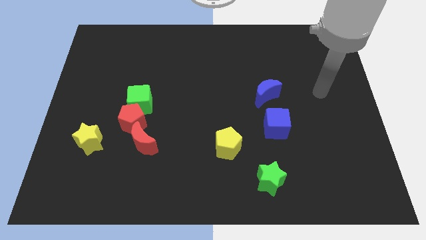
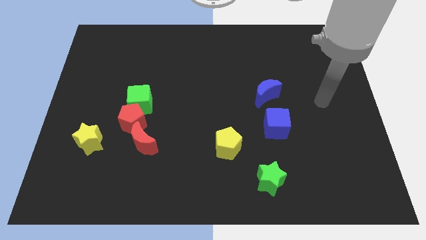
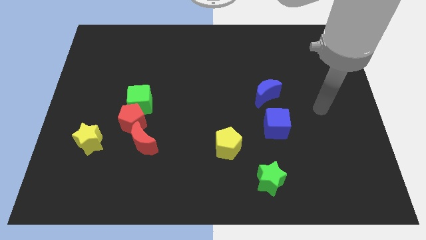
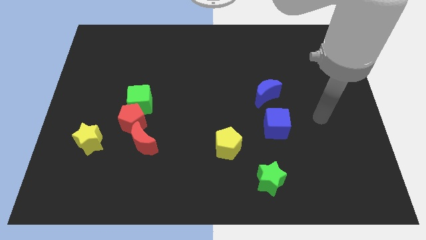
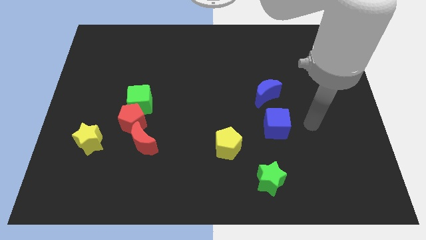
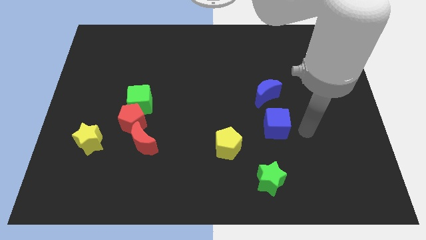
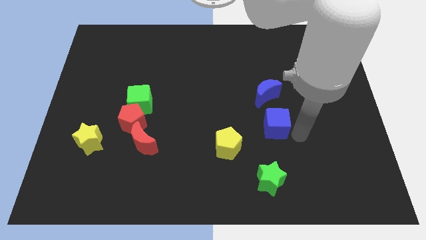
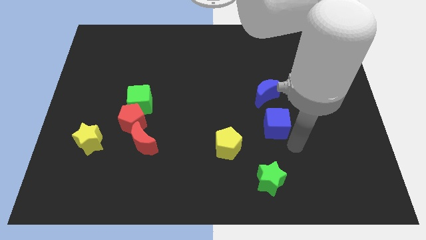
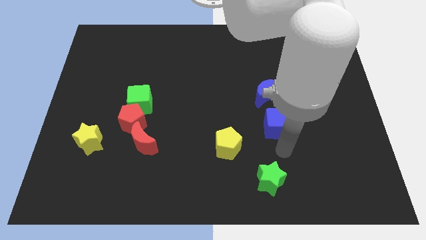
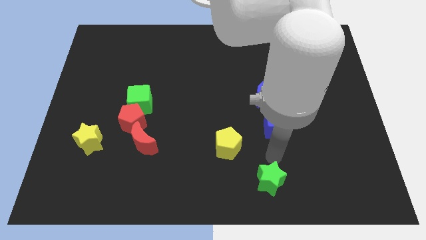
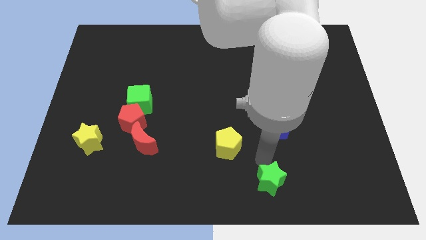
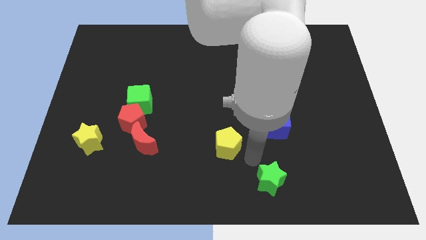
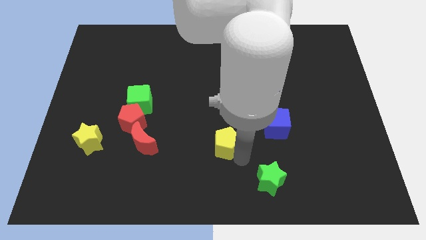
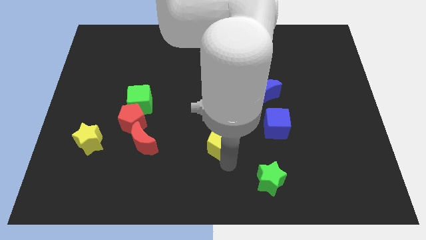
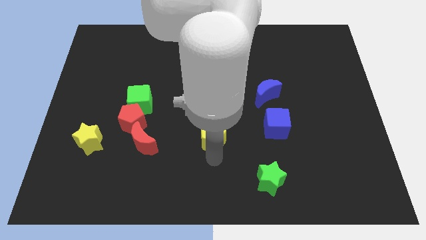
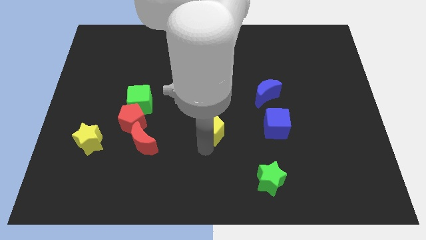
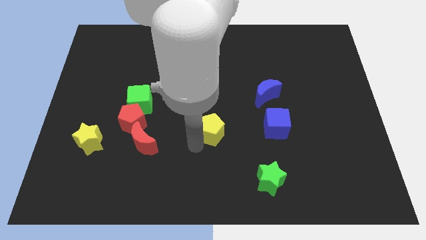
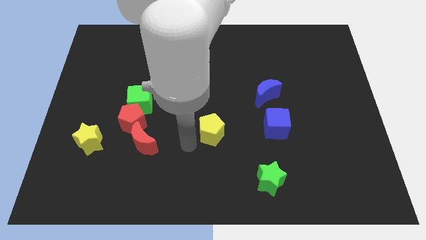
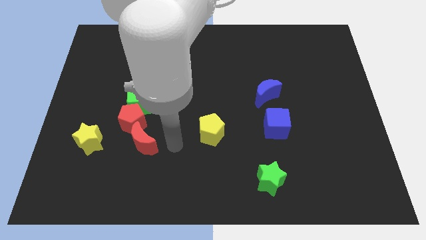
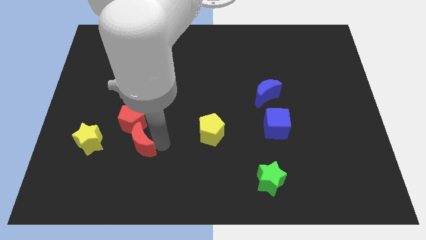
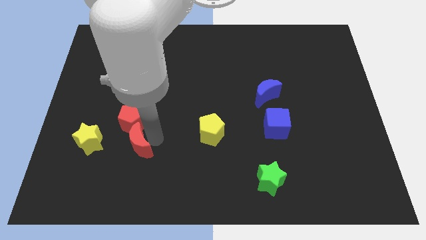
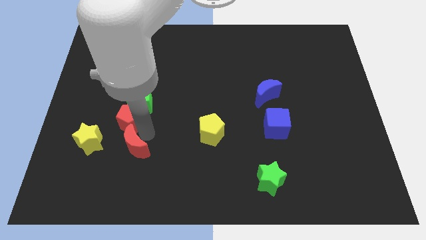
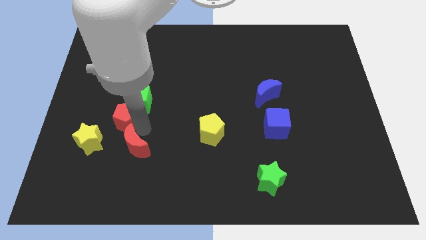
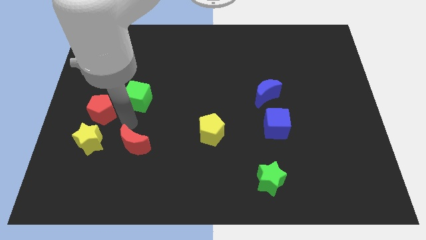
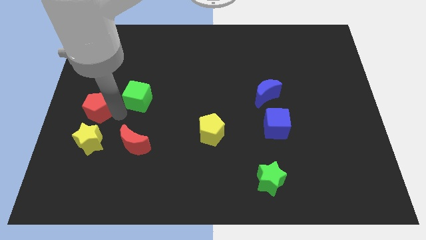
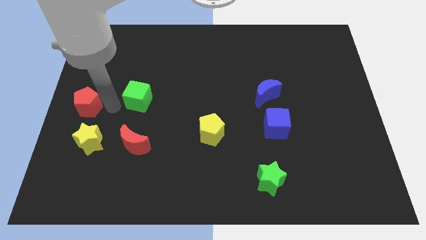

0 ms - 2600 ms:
separate the green cube from the red pentagon

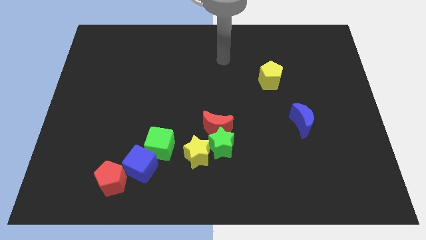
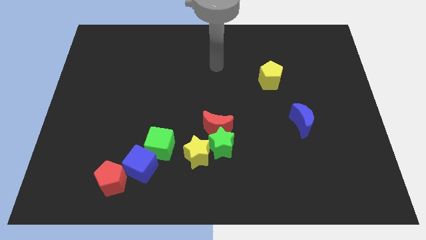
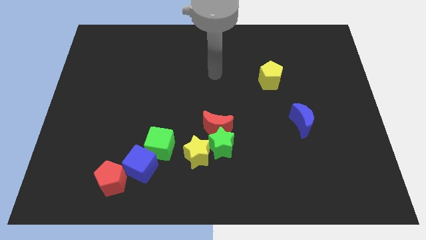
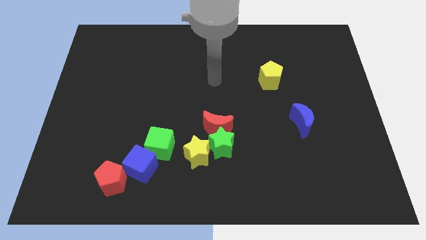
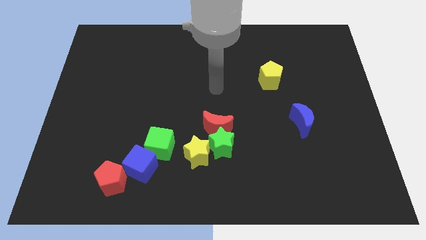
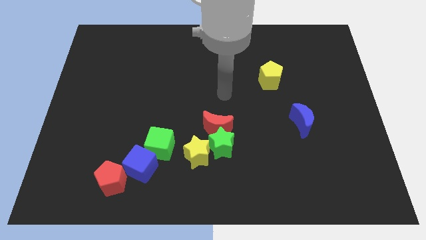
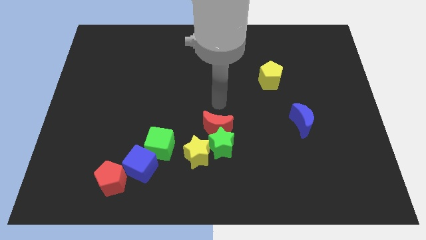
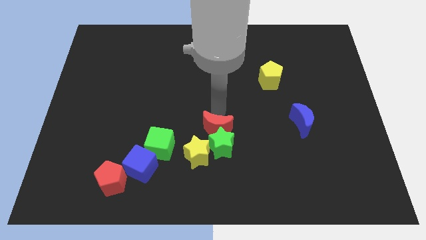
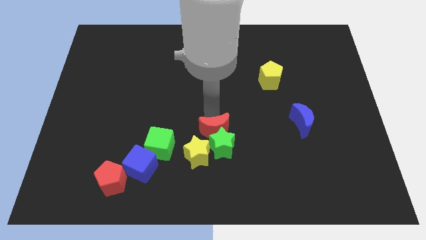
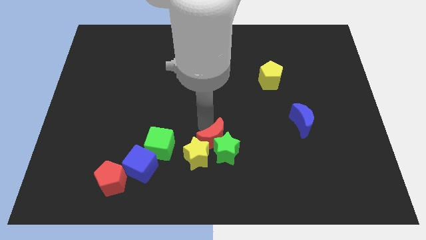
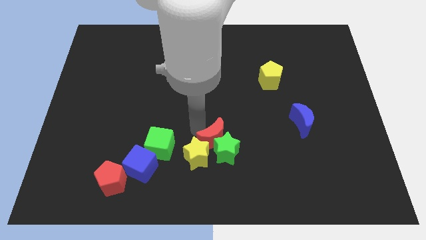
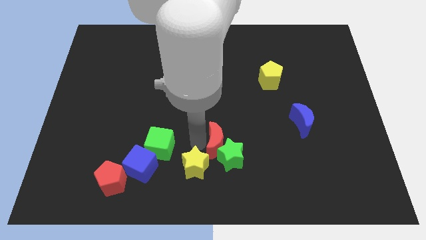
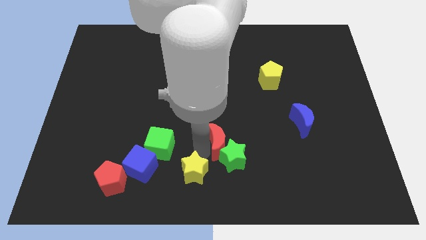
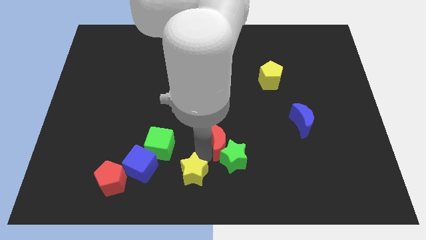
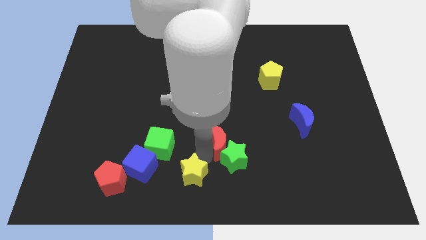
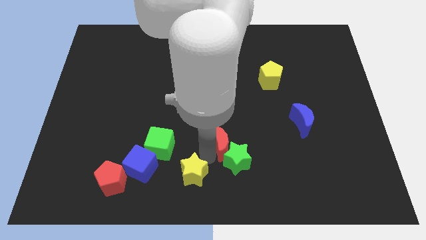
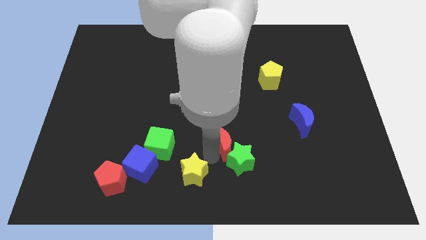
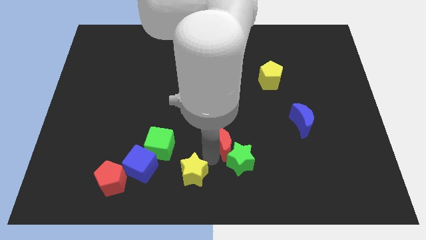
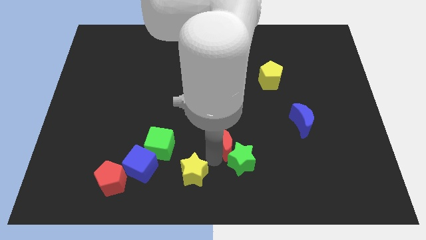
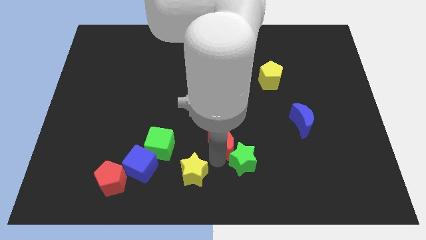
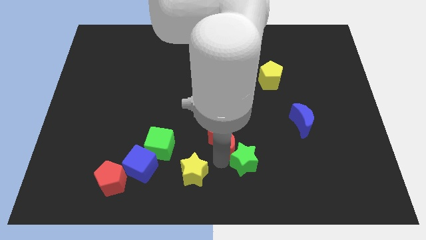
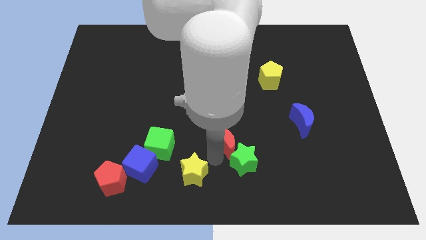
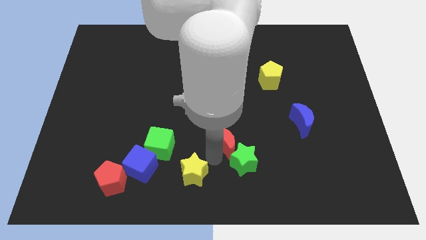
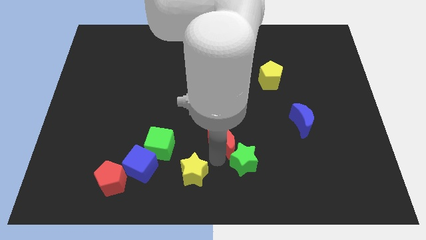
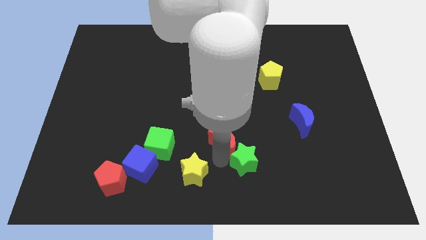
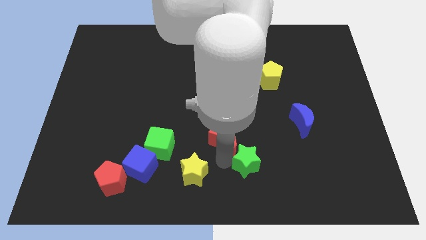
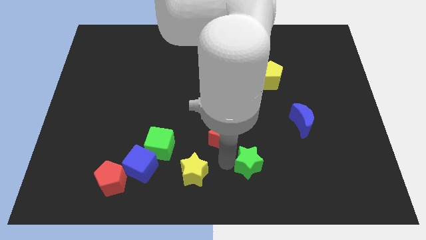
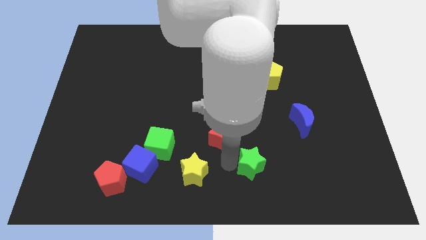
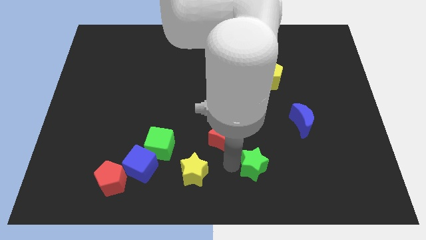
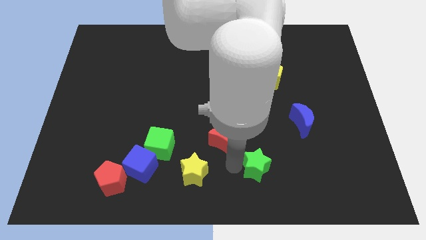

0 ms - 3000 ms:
separate the green star from the red moon and yellow star

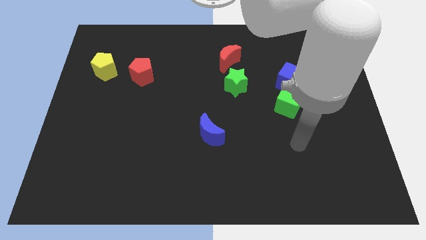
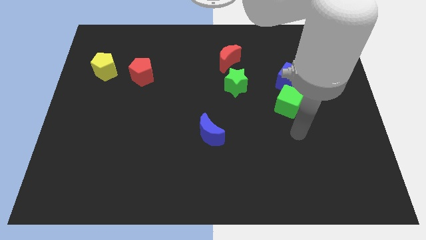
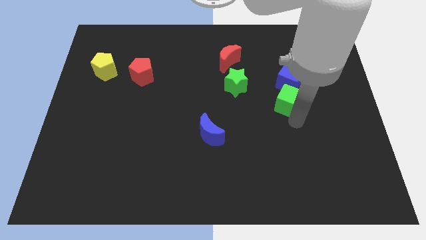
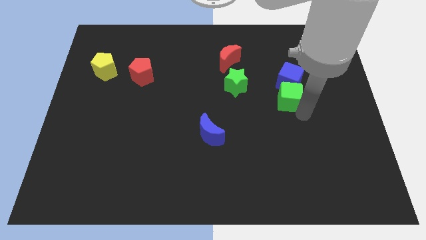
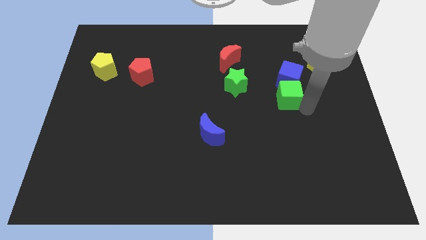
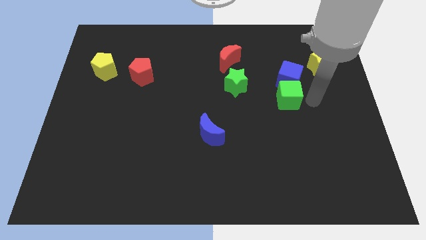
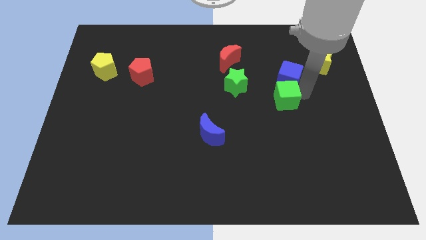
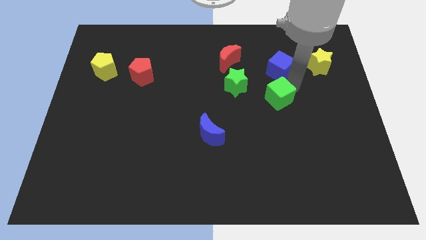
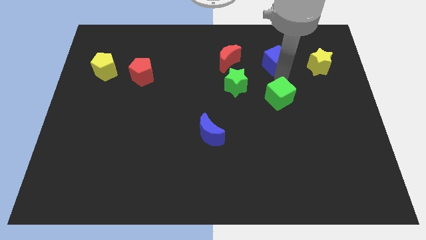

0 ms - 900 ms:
separate the green cube from the blue cube

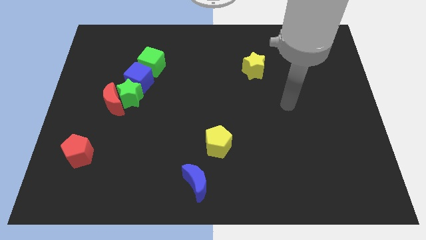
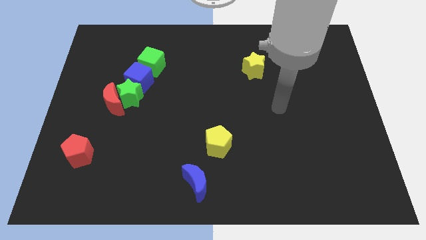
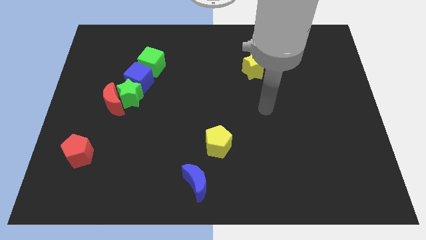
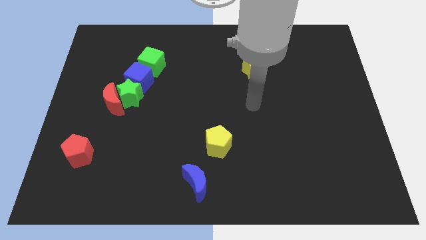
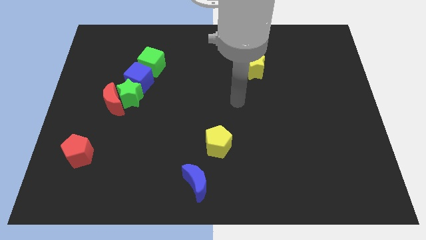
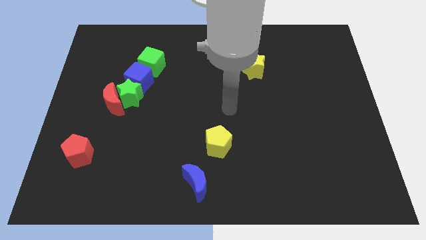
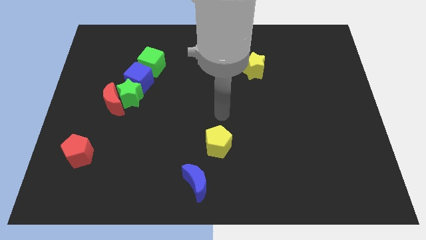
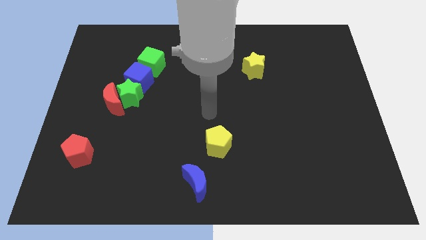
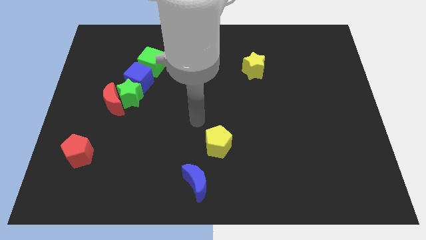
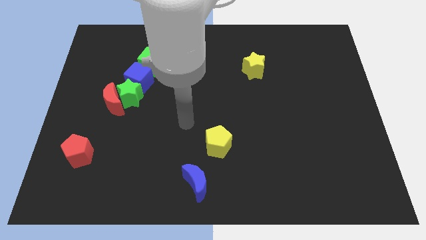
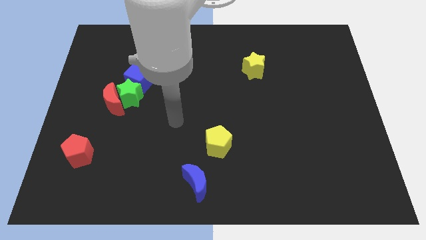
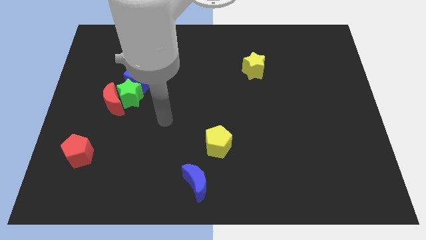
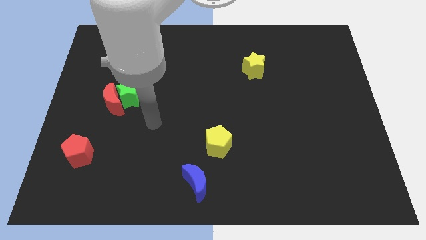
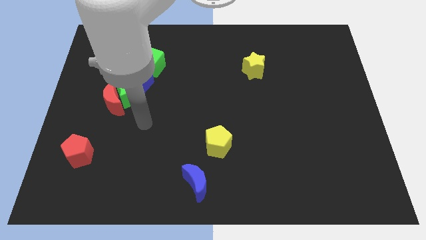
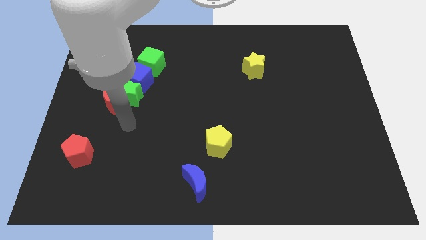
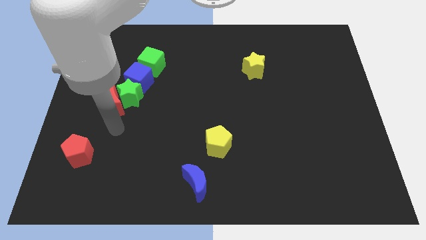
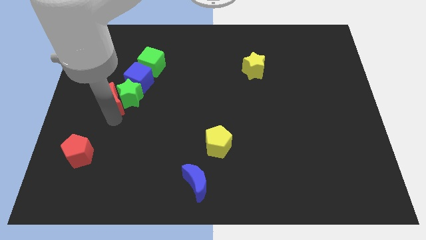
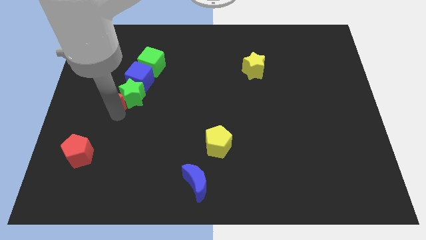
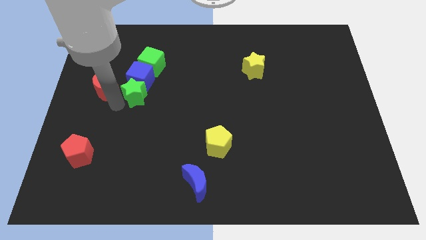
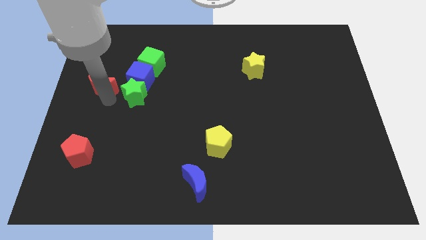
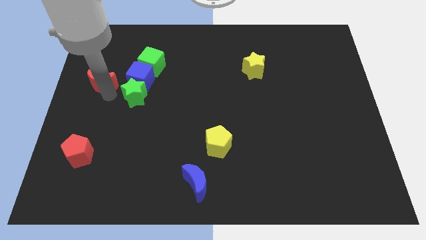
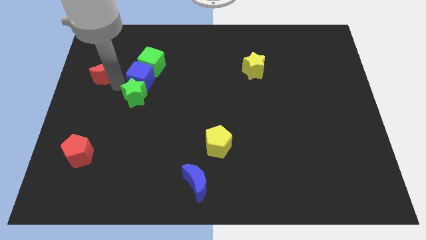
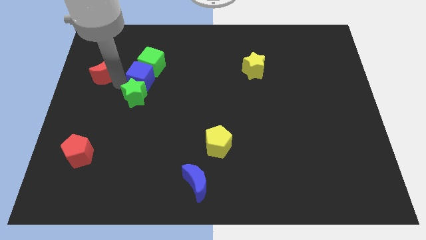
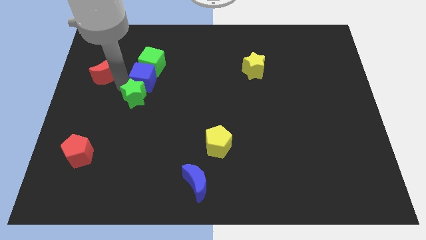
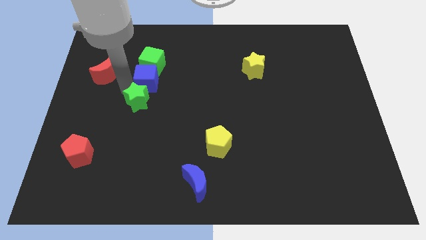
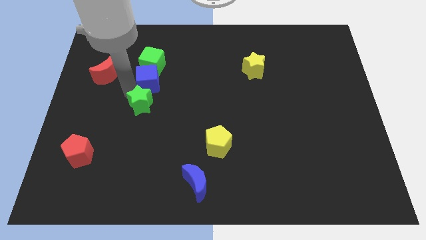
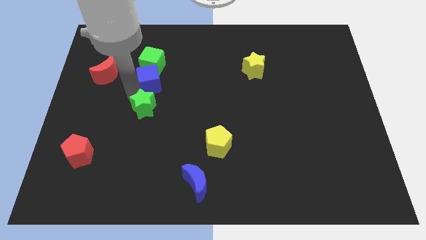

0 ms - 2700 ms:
separate the green star from the red moon and blue cube
